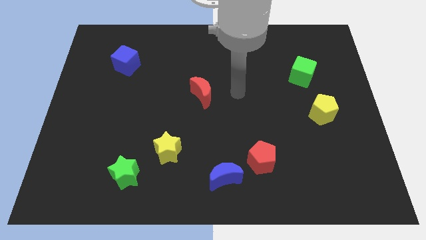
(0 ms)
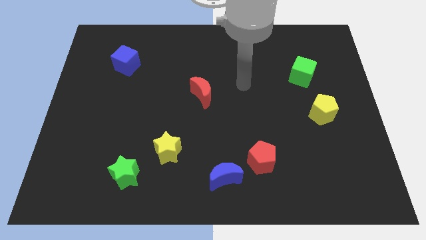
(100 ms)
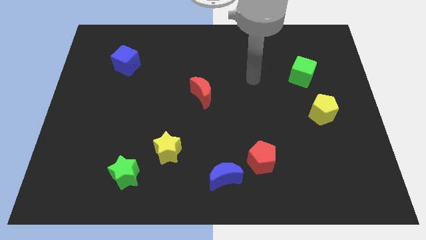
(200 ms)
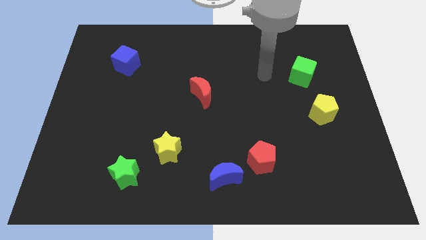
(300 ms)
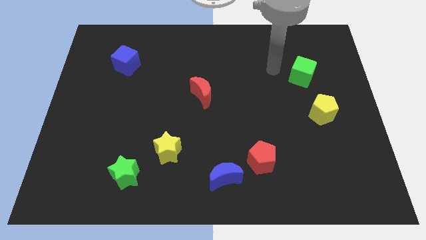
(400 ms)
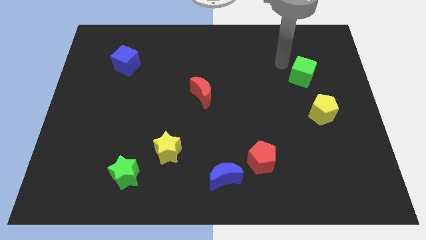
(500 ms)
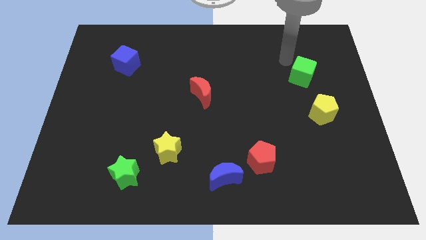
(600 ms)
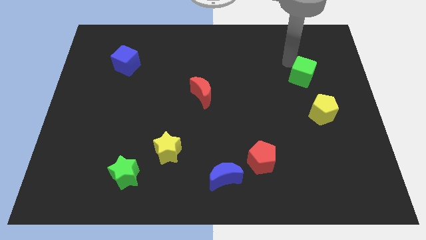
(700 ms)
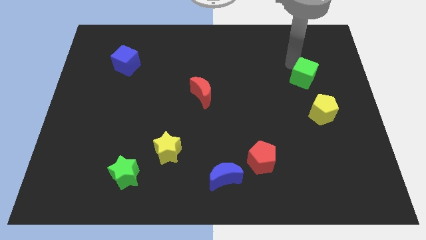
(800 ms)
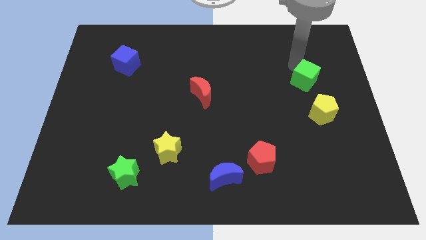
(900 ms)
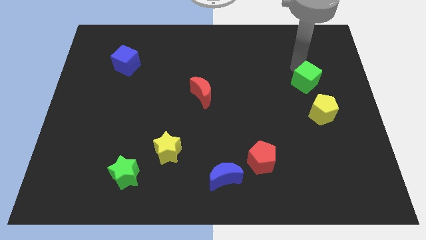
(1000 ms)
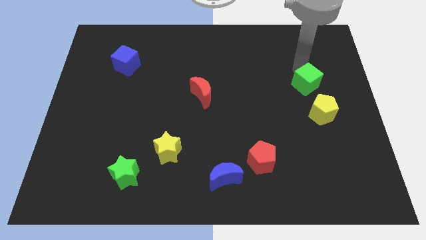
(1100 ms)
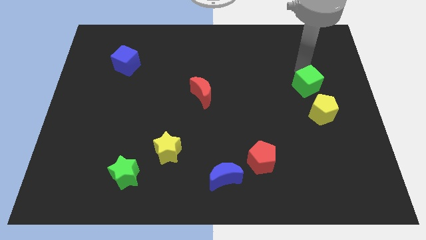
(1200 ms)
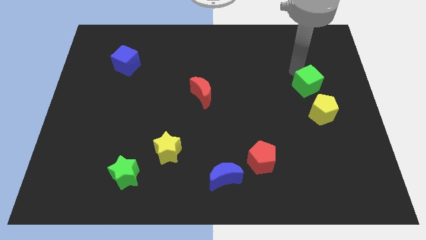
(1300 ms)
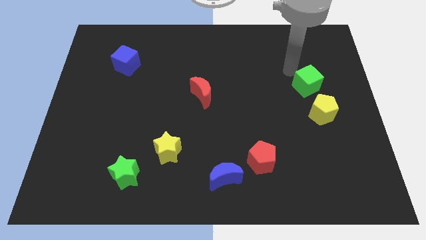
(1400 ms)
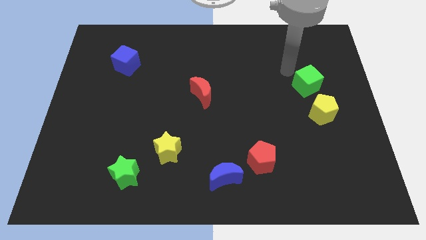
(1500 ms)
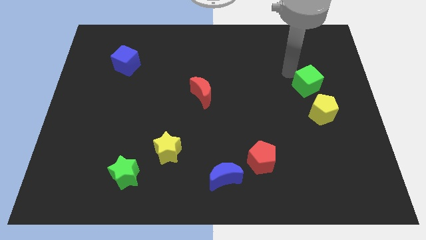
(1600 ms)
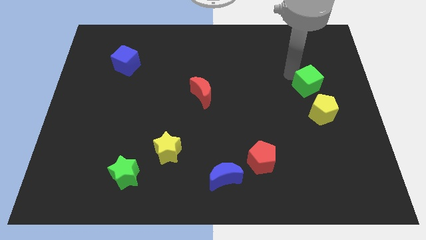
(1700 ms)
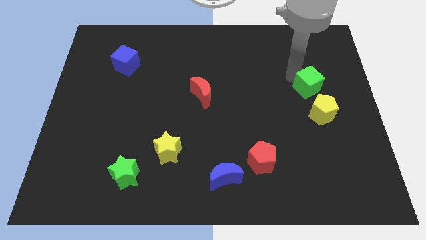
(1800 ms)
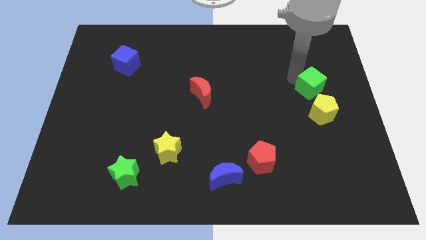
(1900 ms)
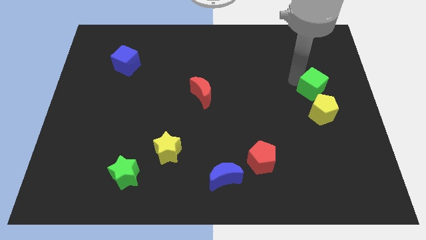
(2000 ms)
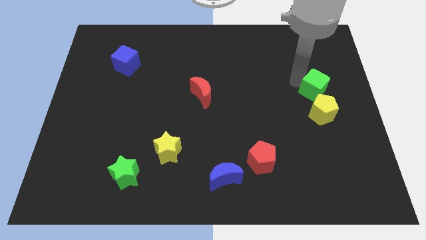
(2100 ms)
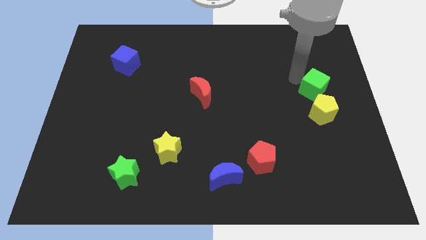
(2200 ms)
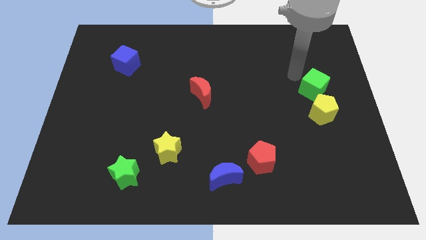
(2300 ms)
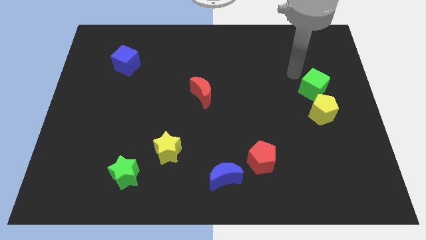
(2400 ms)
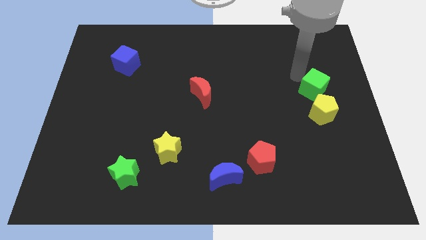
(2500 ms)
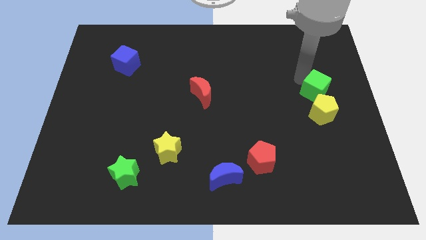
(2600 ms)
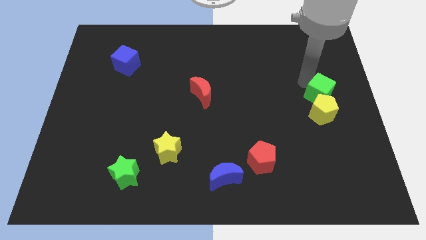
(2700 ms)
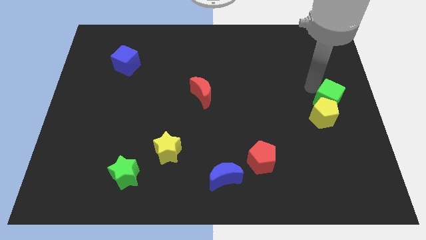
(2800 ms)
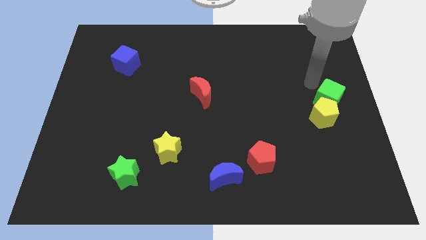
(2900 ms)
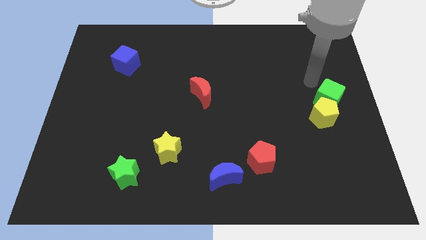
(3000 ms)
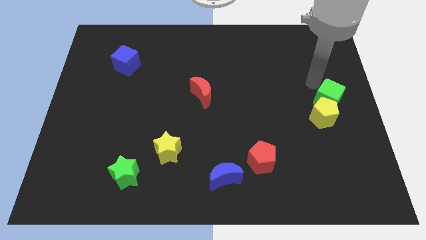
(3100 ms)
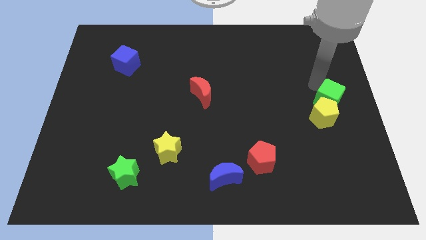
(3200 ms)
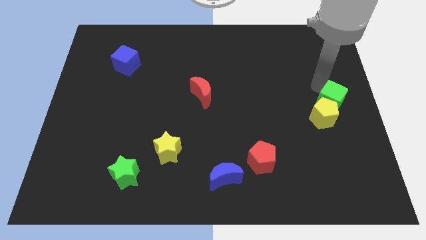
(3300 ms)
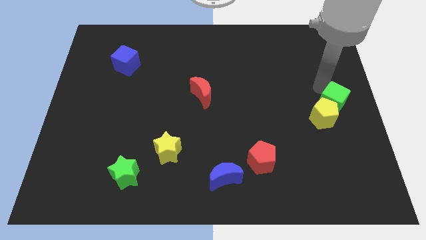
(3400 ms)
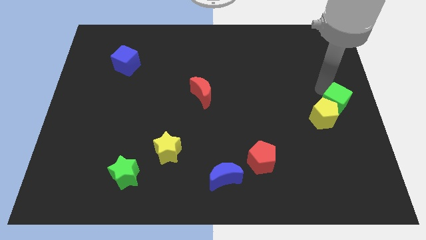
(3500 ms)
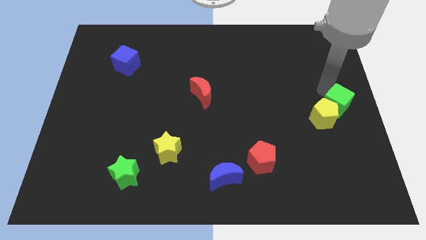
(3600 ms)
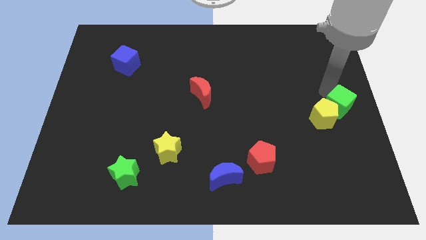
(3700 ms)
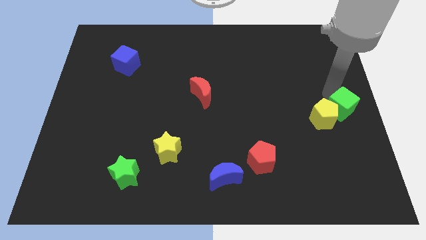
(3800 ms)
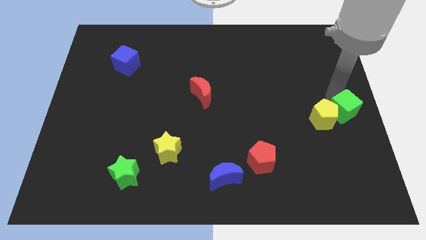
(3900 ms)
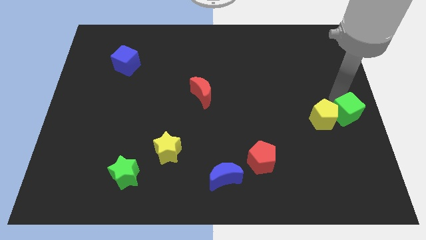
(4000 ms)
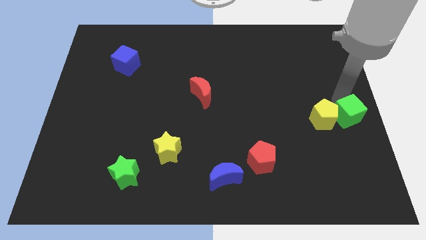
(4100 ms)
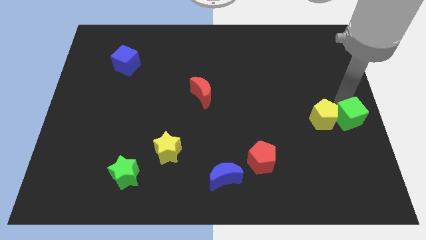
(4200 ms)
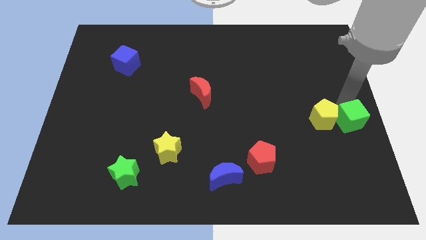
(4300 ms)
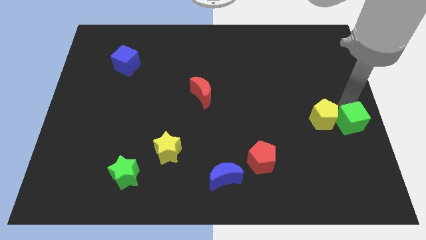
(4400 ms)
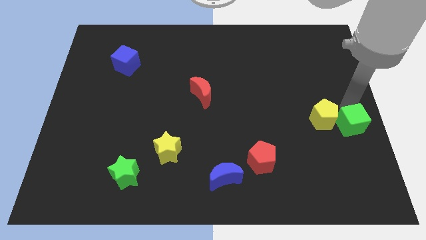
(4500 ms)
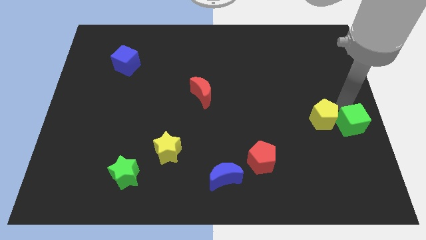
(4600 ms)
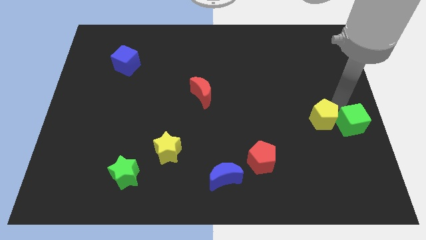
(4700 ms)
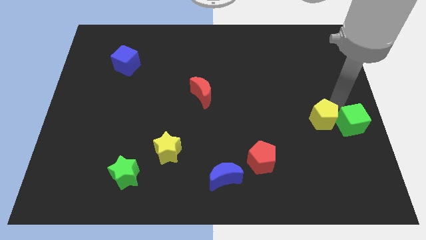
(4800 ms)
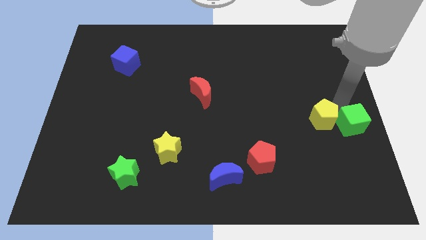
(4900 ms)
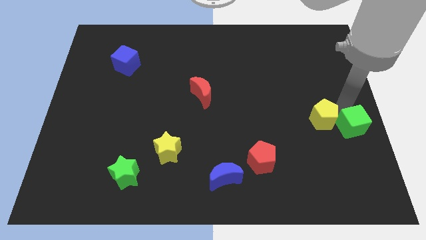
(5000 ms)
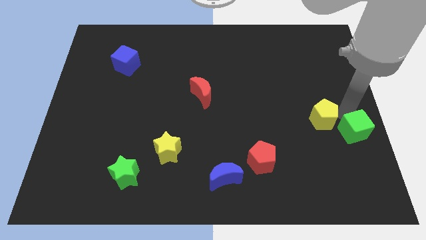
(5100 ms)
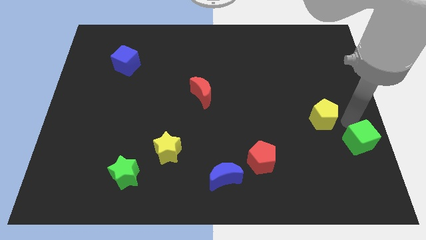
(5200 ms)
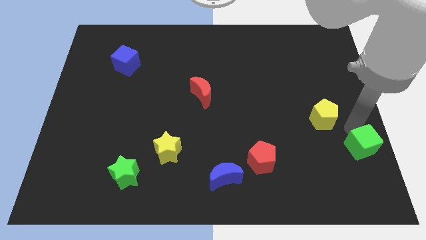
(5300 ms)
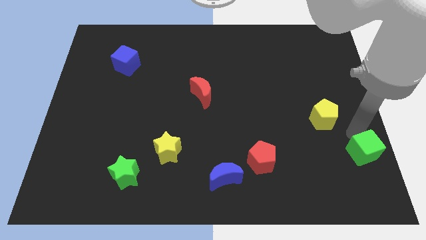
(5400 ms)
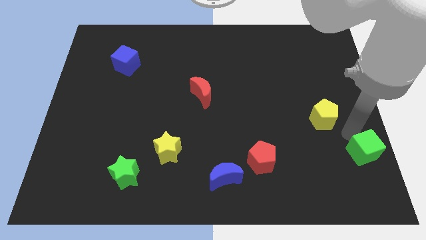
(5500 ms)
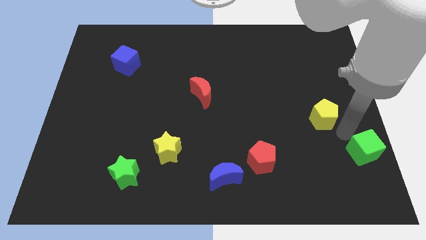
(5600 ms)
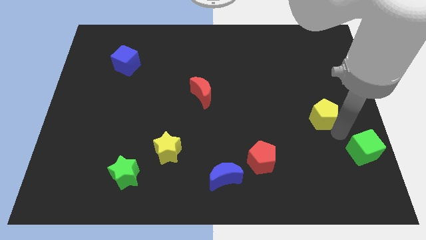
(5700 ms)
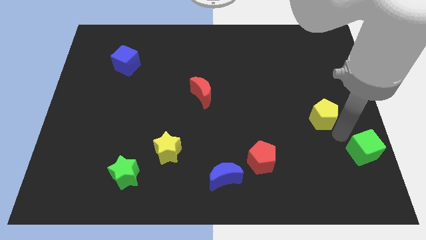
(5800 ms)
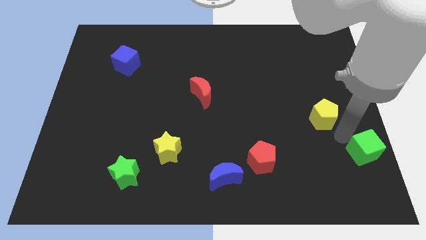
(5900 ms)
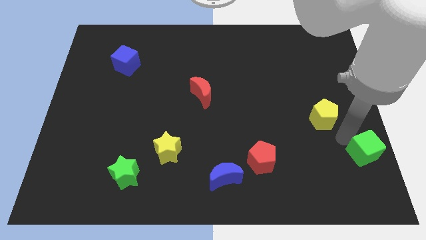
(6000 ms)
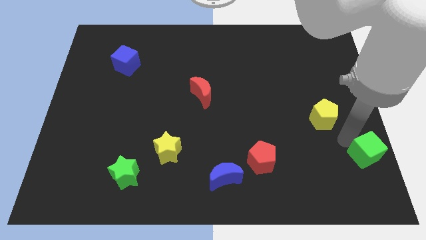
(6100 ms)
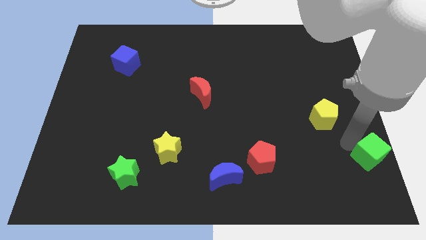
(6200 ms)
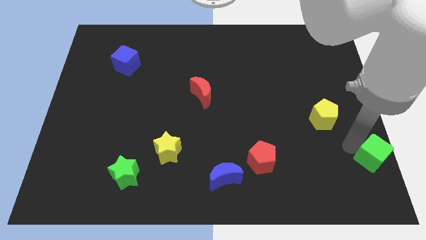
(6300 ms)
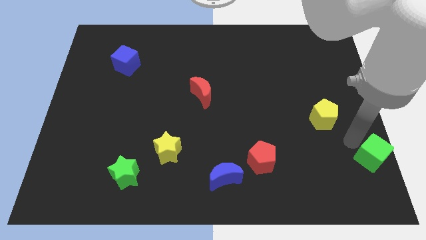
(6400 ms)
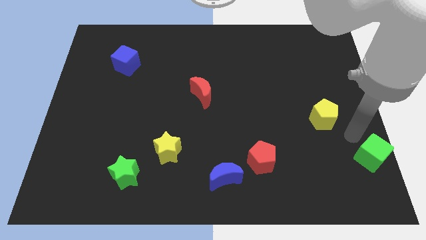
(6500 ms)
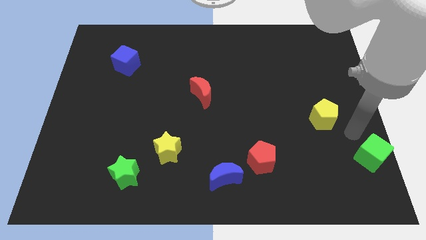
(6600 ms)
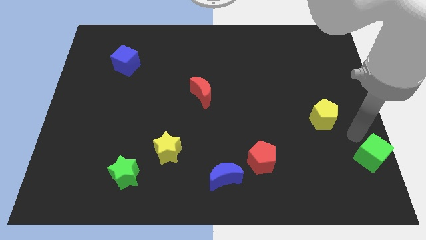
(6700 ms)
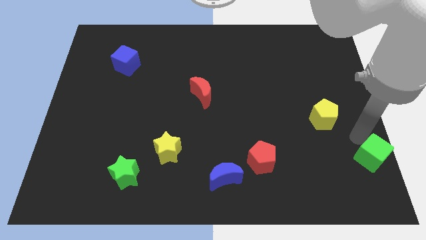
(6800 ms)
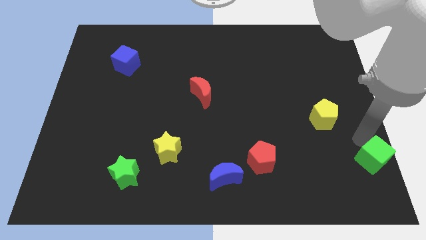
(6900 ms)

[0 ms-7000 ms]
push the green cube to the bottom right of the board
